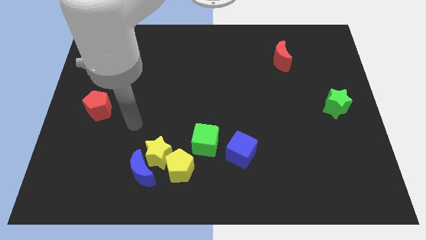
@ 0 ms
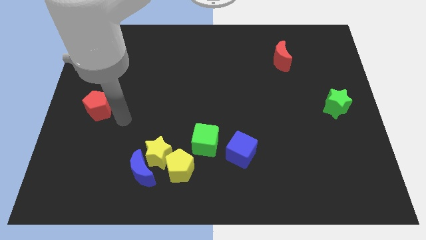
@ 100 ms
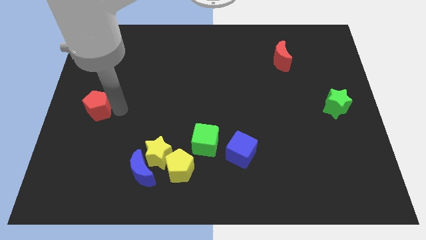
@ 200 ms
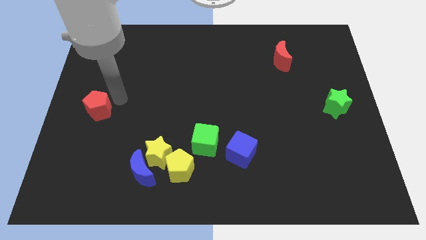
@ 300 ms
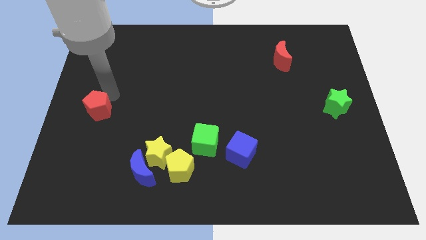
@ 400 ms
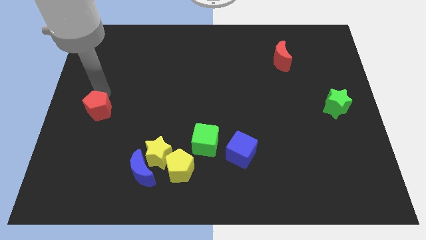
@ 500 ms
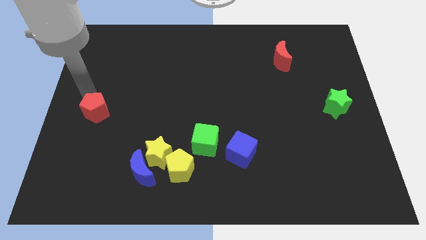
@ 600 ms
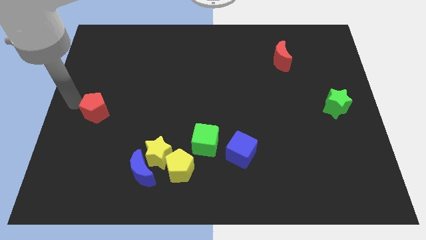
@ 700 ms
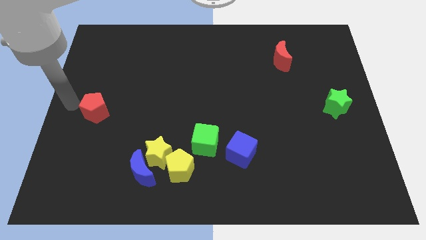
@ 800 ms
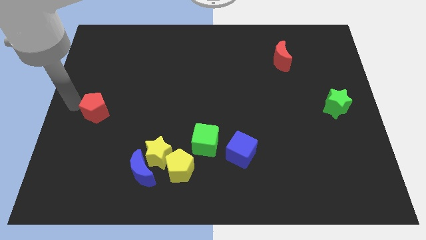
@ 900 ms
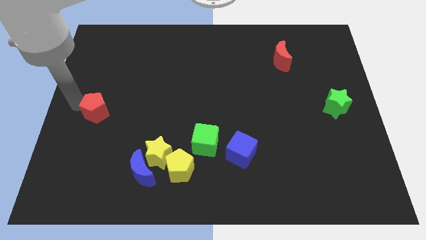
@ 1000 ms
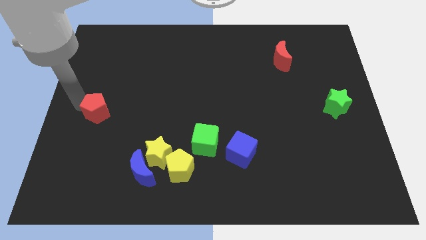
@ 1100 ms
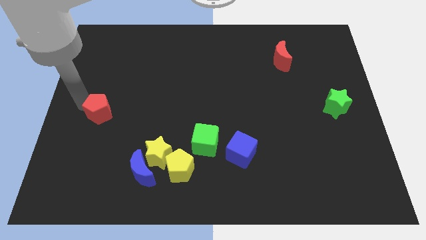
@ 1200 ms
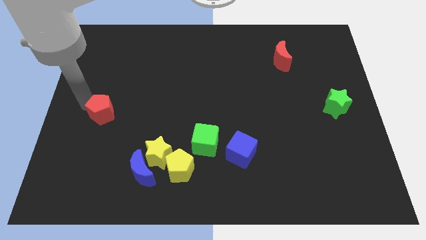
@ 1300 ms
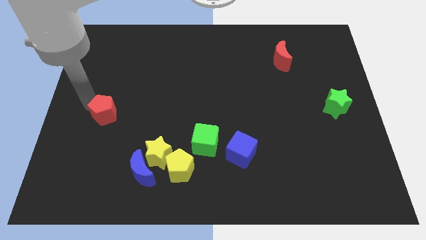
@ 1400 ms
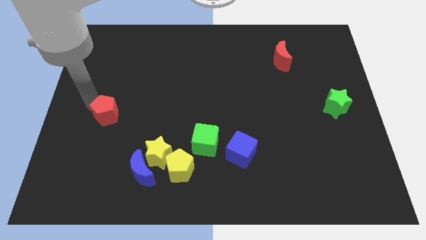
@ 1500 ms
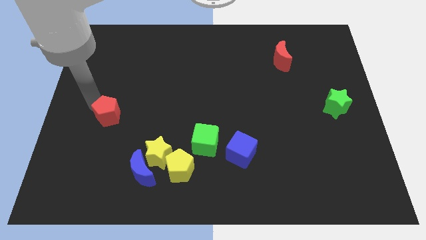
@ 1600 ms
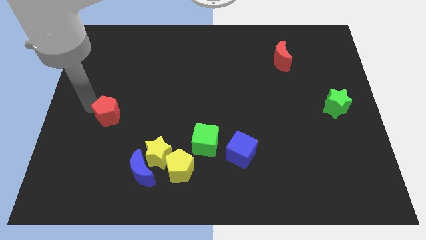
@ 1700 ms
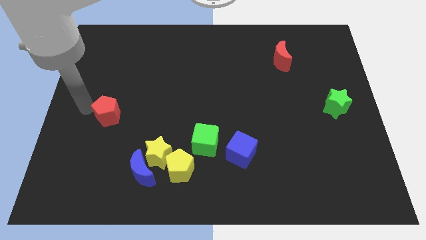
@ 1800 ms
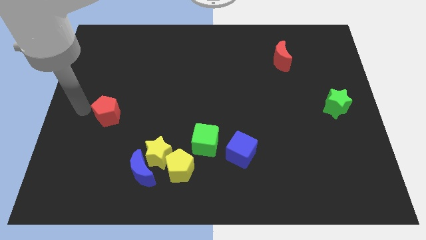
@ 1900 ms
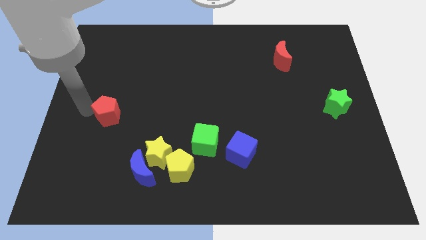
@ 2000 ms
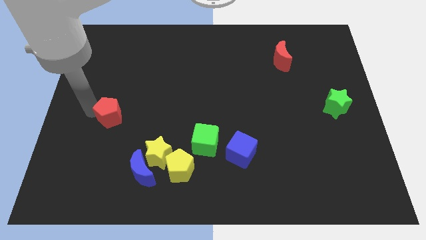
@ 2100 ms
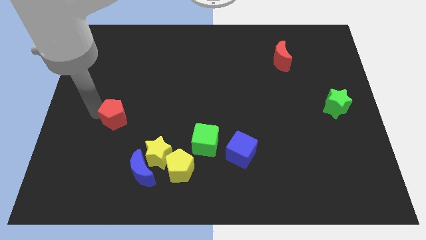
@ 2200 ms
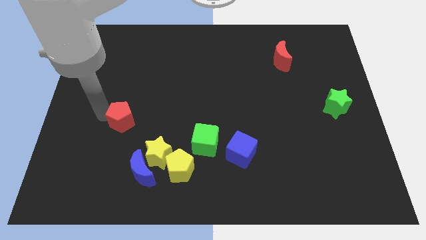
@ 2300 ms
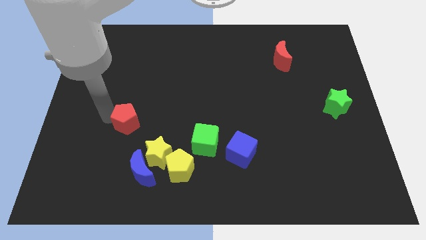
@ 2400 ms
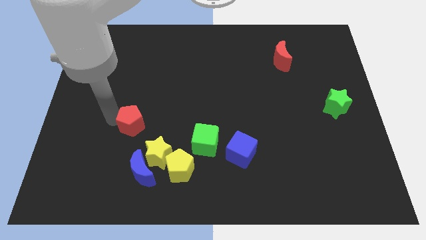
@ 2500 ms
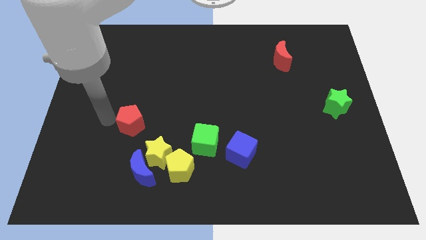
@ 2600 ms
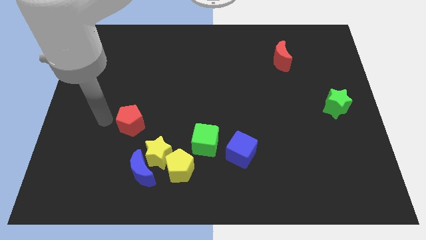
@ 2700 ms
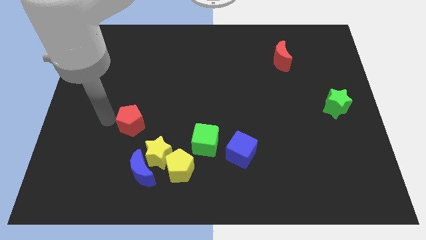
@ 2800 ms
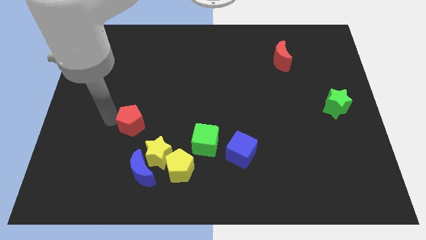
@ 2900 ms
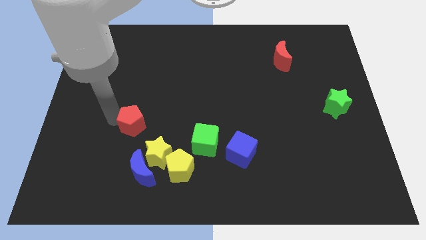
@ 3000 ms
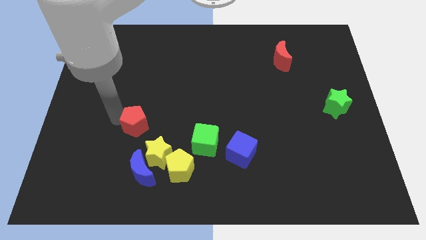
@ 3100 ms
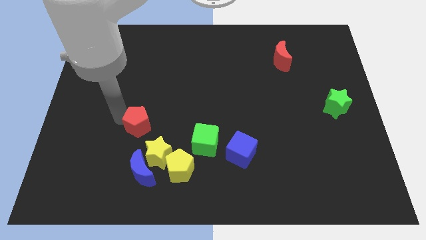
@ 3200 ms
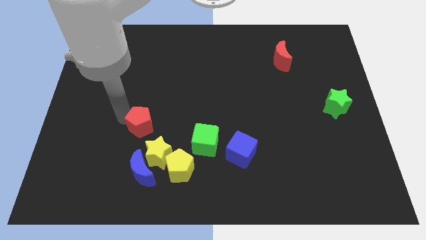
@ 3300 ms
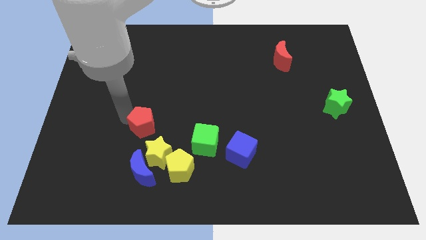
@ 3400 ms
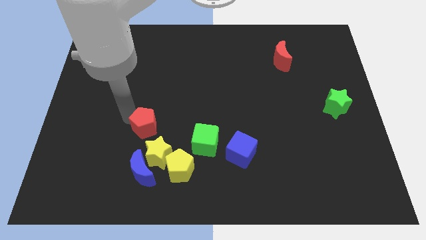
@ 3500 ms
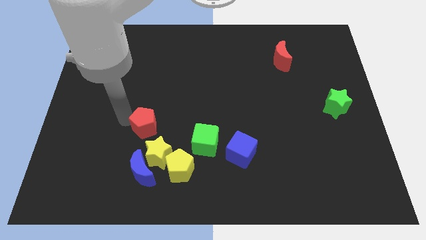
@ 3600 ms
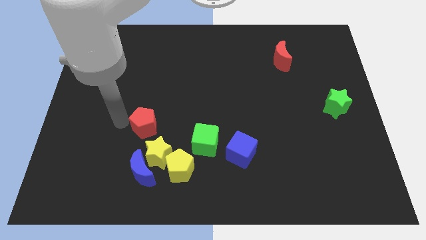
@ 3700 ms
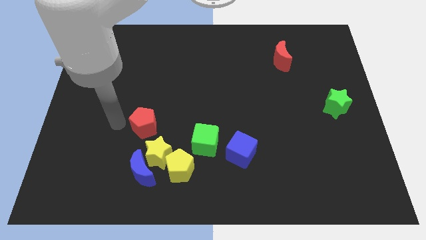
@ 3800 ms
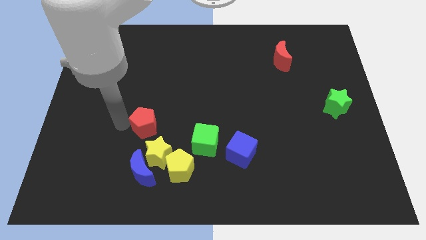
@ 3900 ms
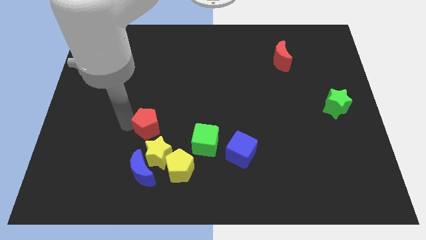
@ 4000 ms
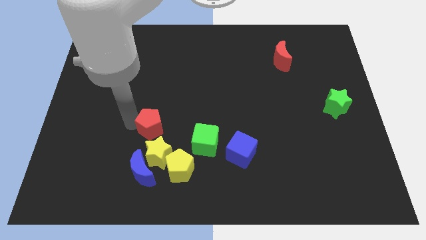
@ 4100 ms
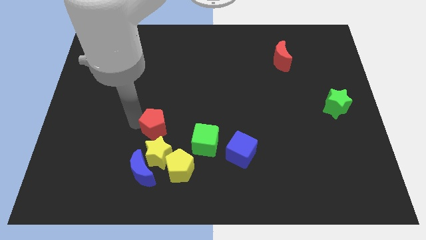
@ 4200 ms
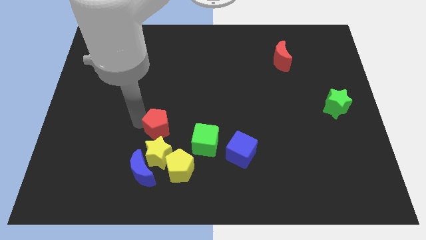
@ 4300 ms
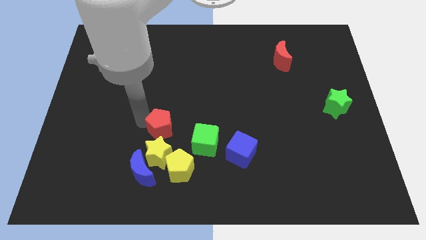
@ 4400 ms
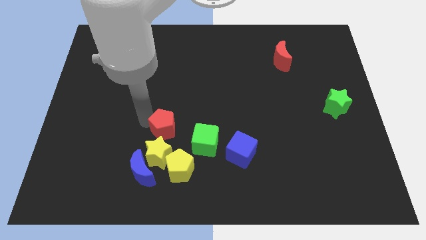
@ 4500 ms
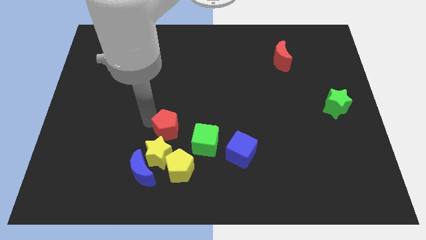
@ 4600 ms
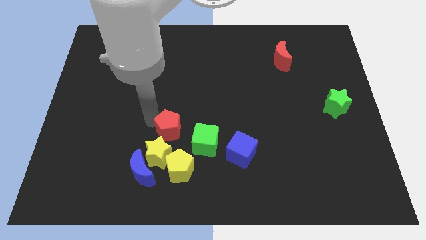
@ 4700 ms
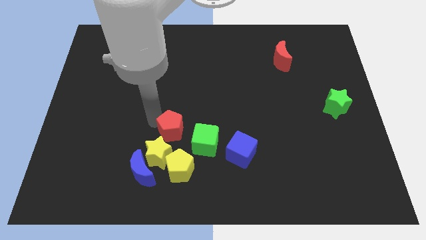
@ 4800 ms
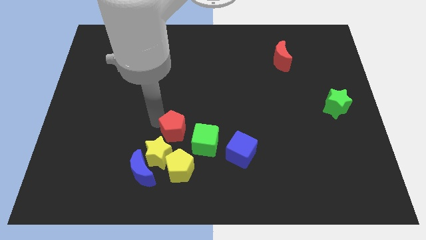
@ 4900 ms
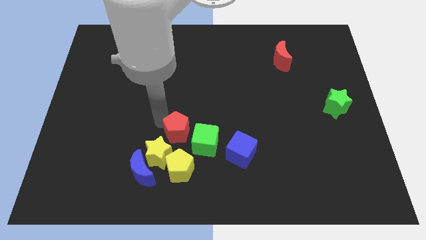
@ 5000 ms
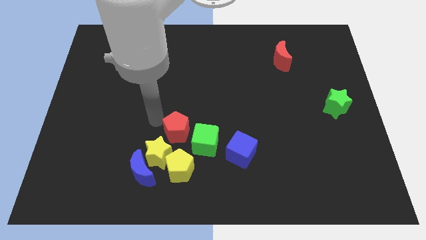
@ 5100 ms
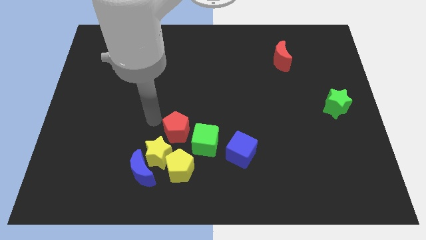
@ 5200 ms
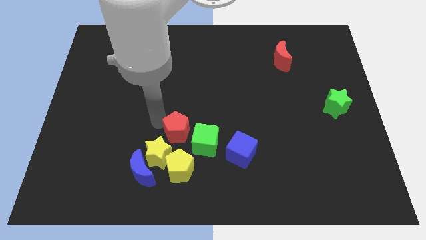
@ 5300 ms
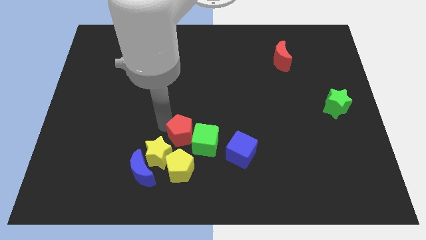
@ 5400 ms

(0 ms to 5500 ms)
slide the red pentagon towards the green cube

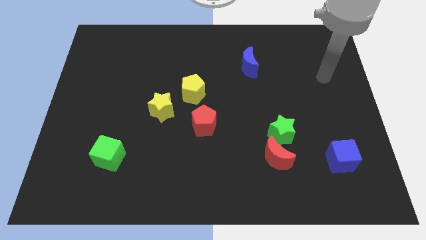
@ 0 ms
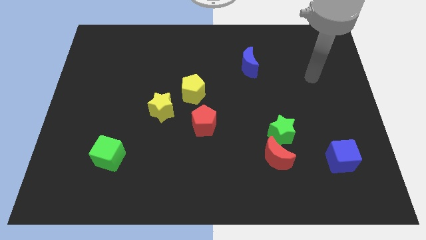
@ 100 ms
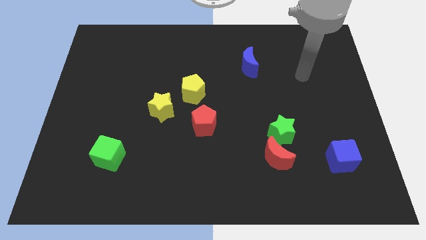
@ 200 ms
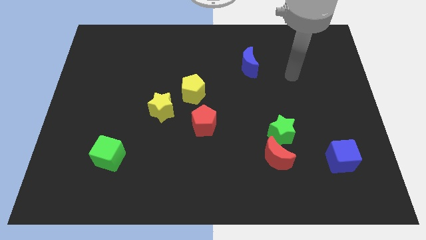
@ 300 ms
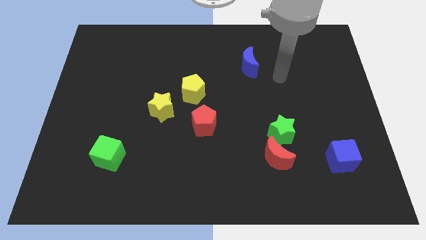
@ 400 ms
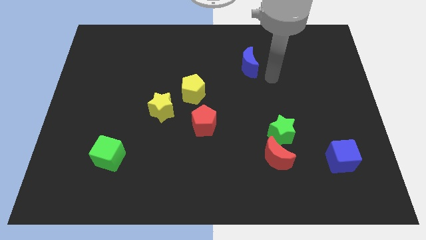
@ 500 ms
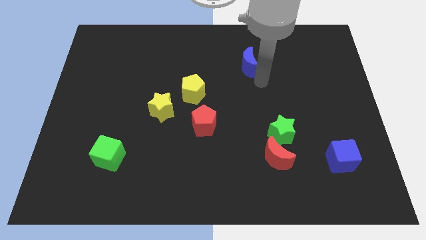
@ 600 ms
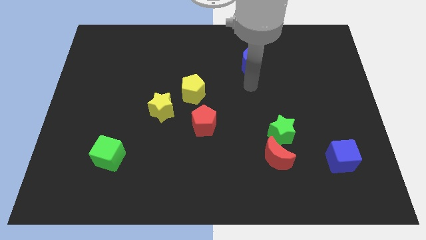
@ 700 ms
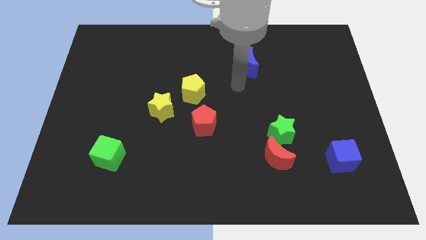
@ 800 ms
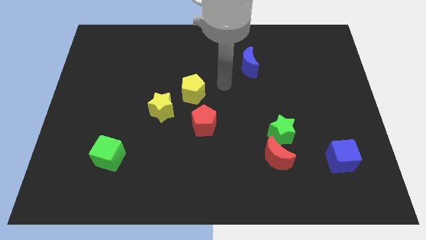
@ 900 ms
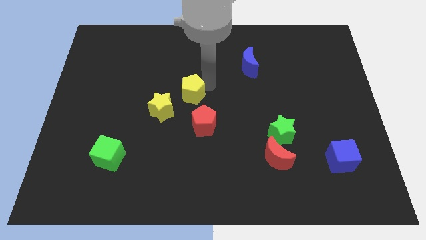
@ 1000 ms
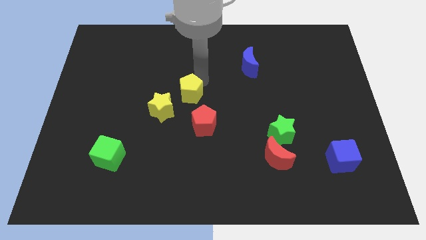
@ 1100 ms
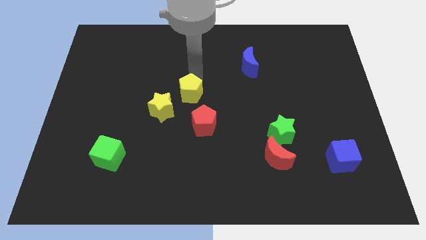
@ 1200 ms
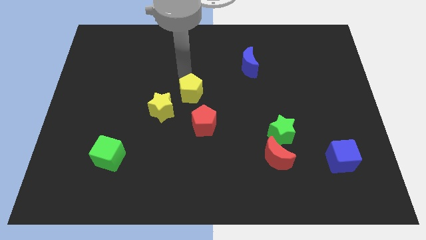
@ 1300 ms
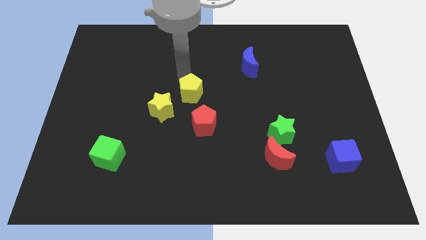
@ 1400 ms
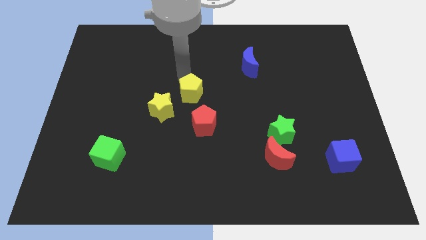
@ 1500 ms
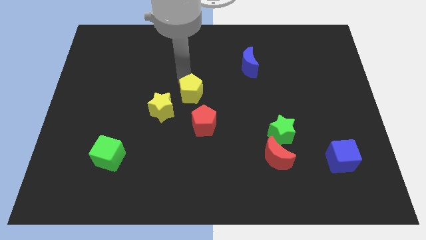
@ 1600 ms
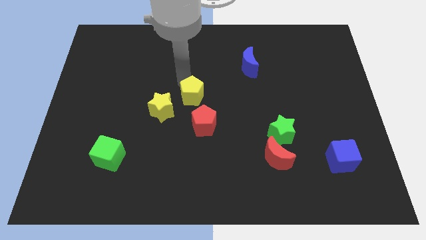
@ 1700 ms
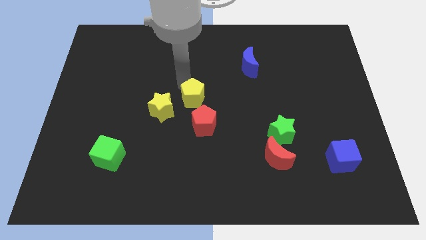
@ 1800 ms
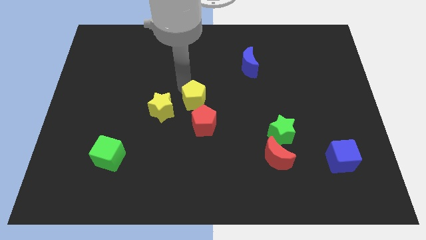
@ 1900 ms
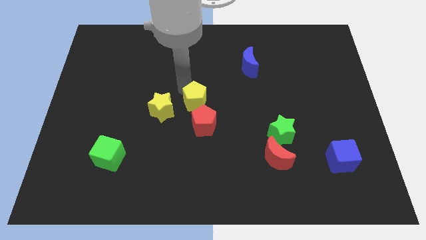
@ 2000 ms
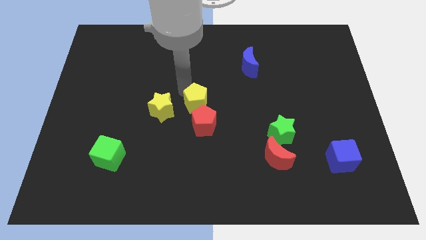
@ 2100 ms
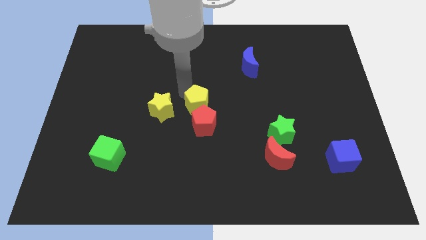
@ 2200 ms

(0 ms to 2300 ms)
move the yellow pentagon close to the red pentagon
